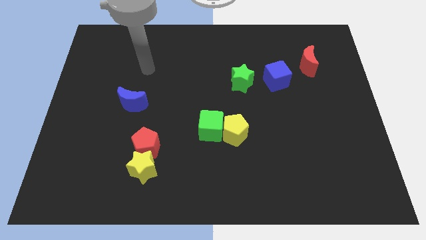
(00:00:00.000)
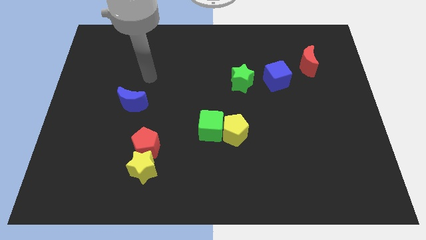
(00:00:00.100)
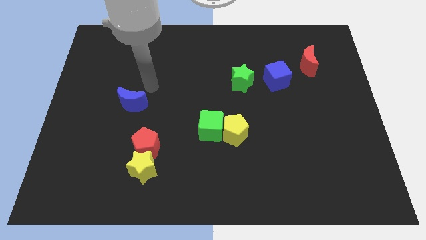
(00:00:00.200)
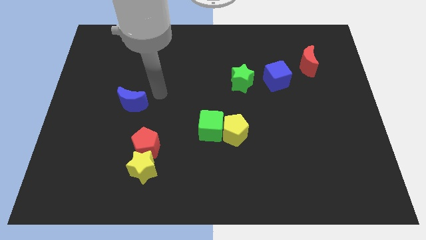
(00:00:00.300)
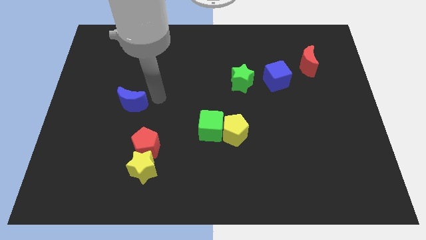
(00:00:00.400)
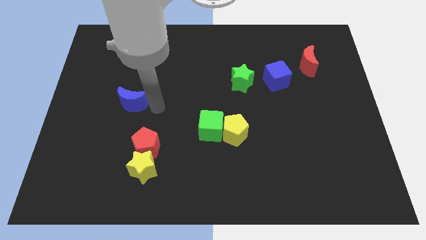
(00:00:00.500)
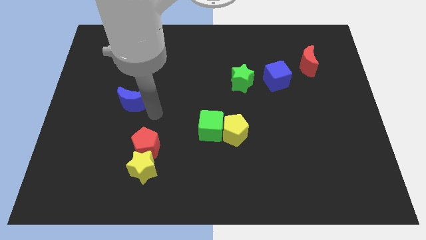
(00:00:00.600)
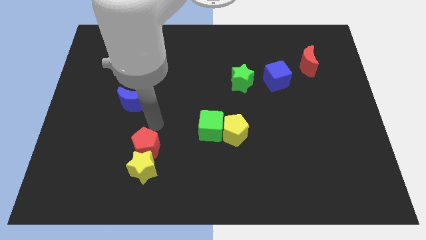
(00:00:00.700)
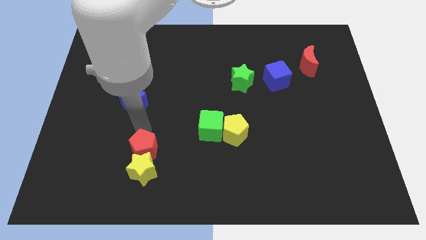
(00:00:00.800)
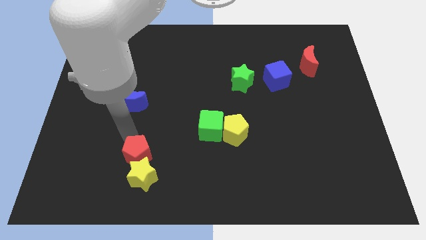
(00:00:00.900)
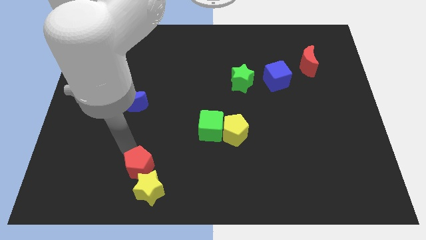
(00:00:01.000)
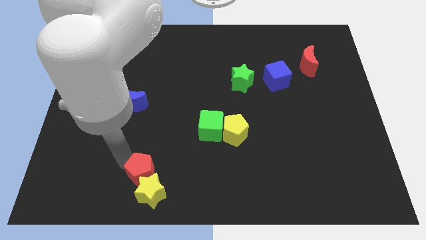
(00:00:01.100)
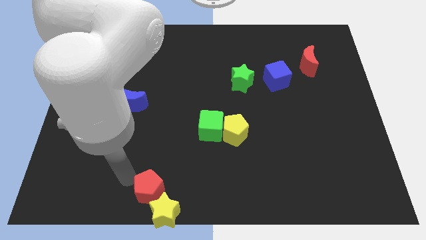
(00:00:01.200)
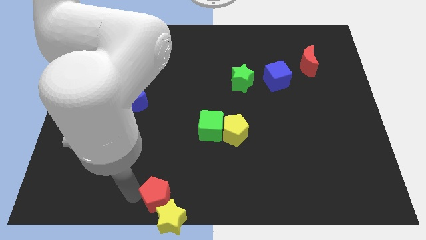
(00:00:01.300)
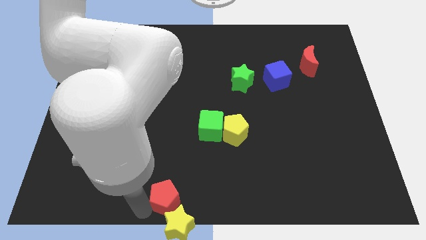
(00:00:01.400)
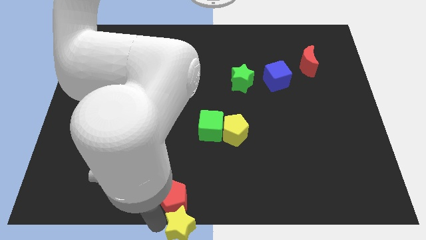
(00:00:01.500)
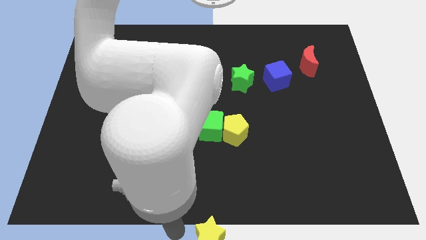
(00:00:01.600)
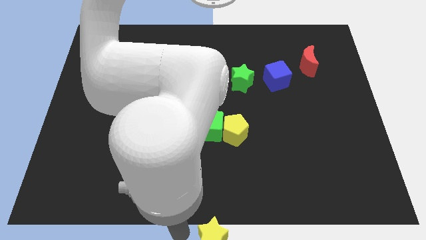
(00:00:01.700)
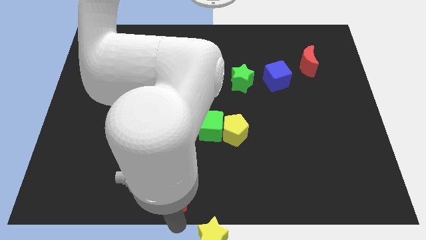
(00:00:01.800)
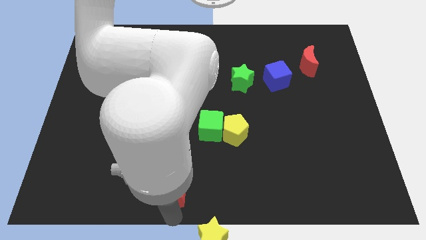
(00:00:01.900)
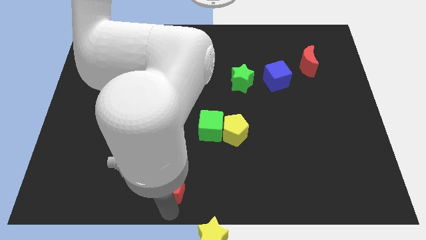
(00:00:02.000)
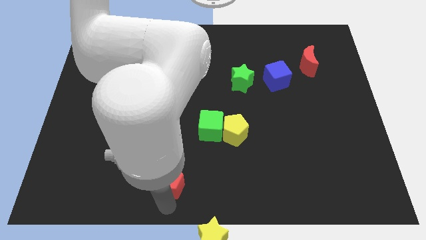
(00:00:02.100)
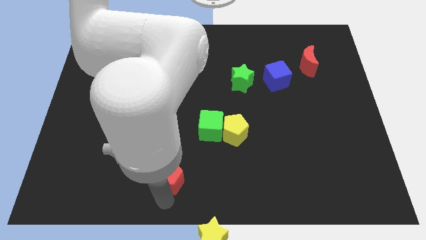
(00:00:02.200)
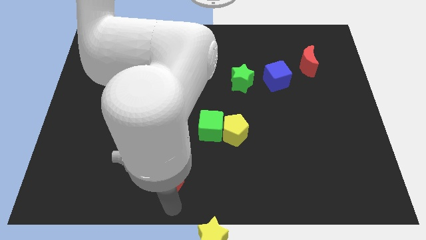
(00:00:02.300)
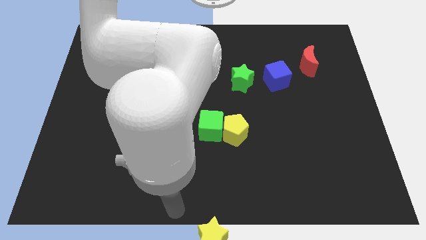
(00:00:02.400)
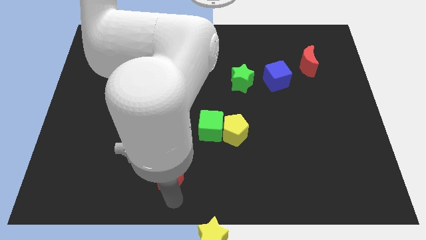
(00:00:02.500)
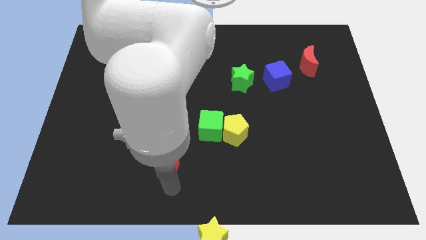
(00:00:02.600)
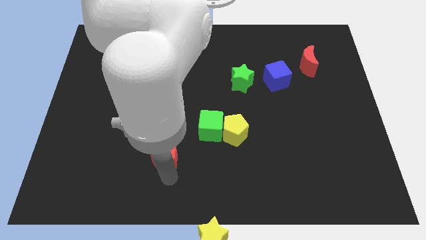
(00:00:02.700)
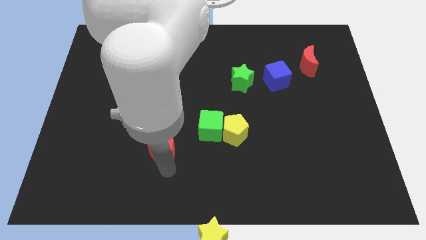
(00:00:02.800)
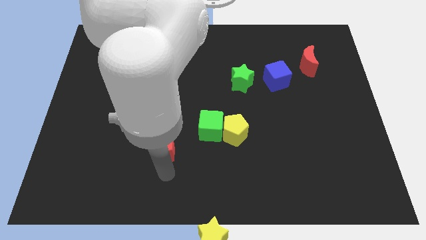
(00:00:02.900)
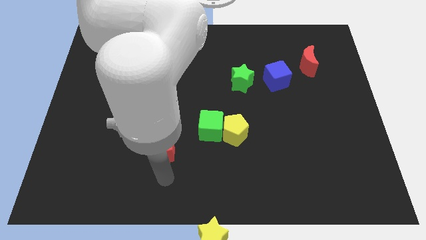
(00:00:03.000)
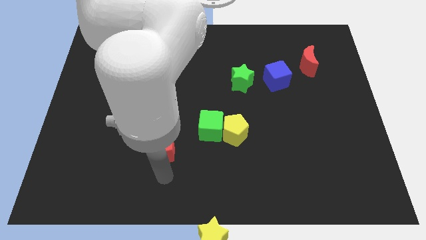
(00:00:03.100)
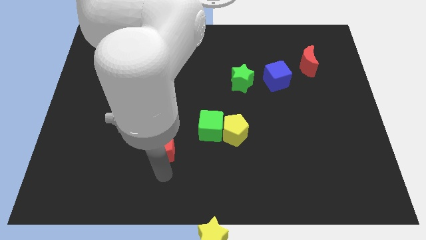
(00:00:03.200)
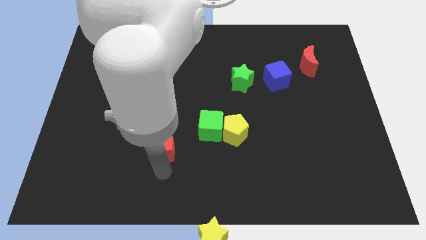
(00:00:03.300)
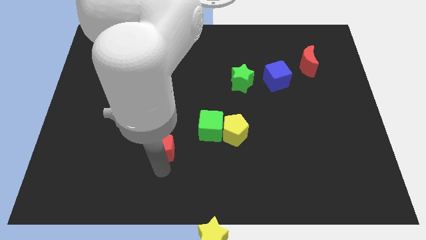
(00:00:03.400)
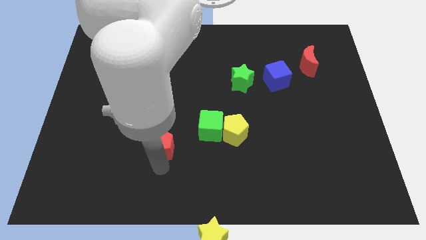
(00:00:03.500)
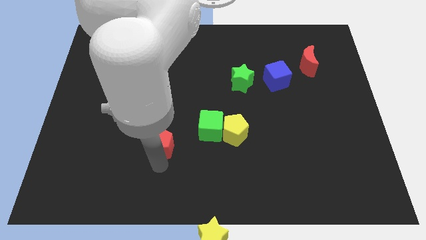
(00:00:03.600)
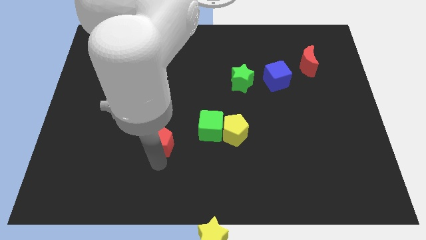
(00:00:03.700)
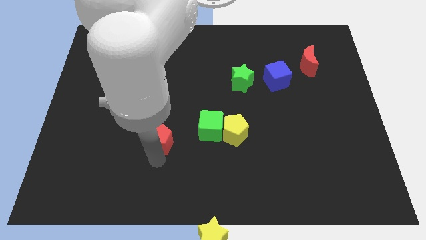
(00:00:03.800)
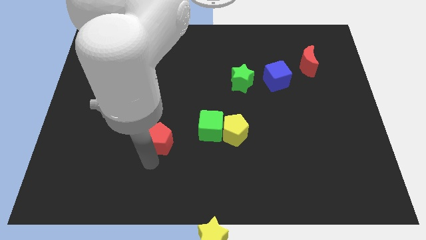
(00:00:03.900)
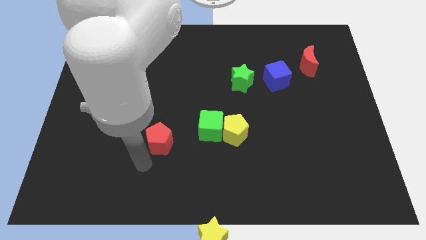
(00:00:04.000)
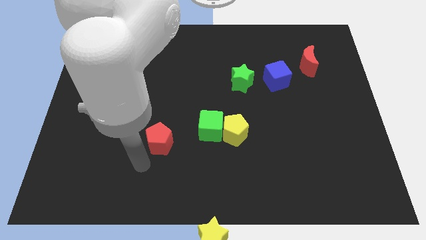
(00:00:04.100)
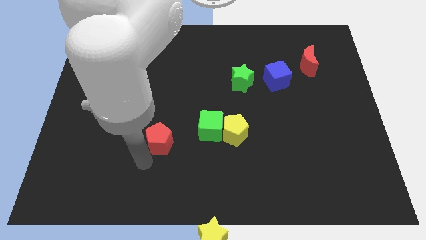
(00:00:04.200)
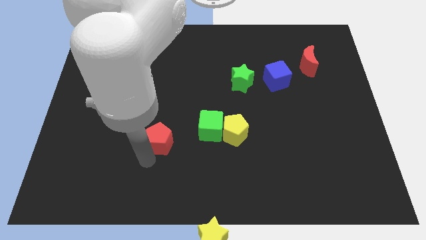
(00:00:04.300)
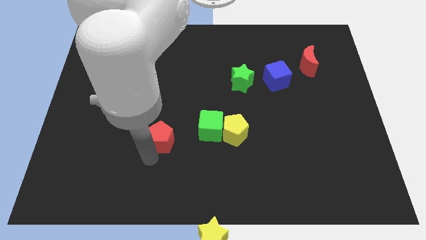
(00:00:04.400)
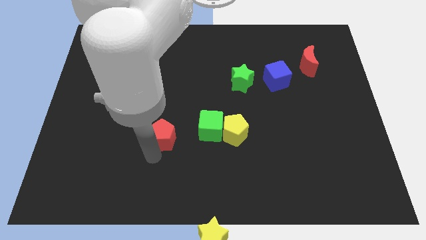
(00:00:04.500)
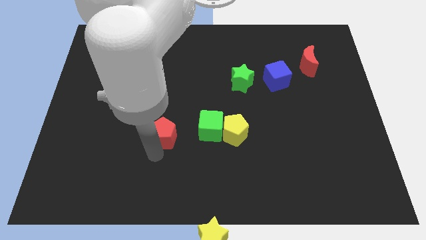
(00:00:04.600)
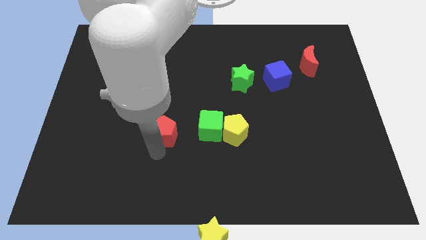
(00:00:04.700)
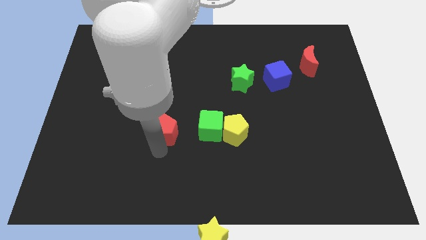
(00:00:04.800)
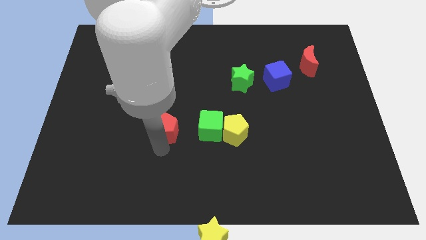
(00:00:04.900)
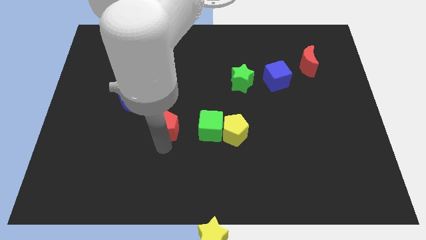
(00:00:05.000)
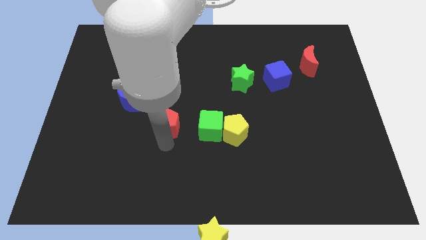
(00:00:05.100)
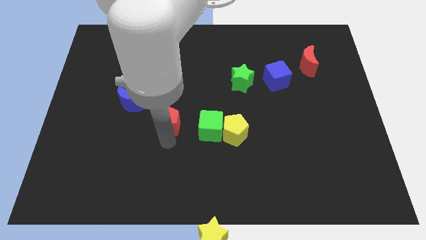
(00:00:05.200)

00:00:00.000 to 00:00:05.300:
move the red pentagon to the middle
